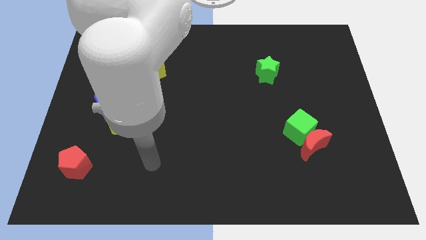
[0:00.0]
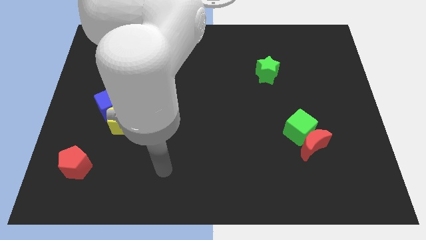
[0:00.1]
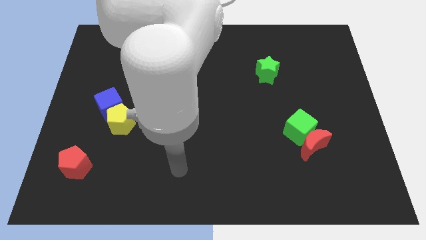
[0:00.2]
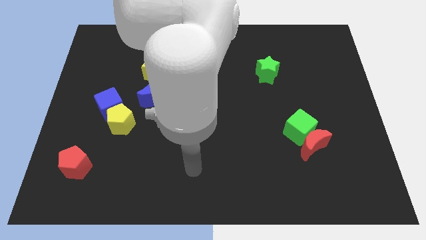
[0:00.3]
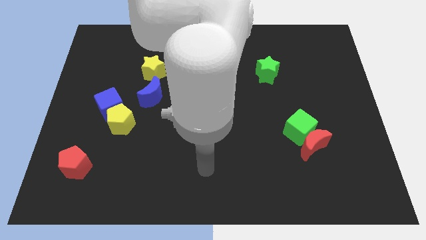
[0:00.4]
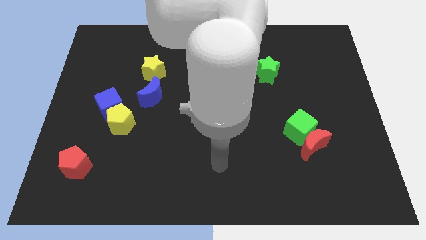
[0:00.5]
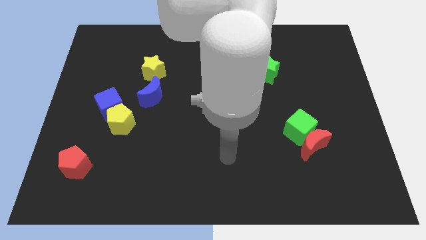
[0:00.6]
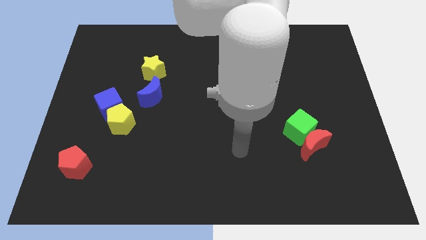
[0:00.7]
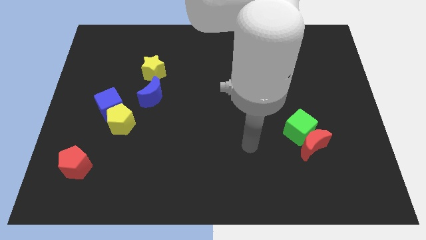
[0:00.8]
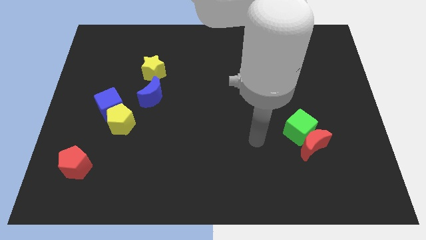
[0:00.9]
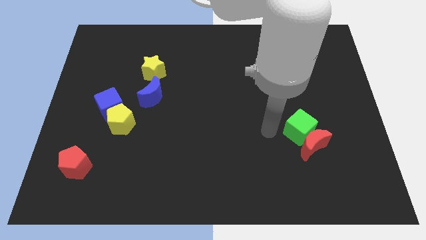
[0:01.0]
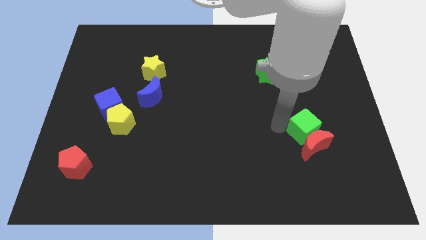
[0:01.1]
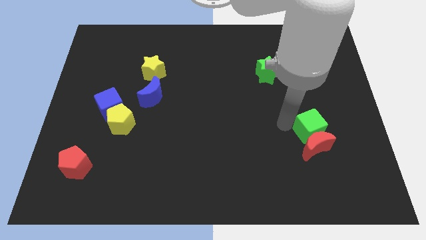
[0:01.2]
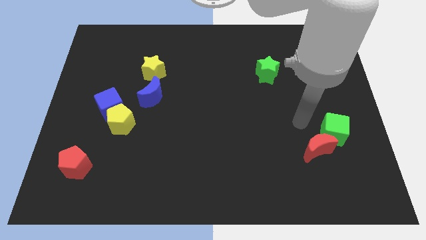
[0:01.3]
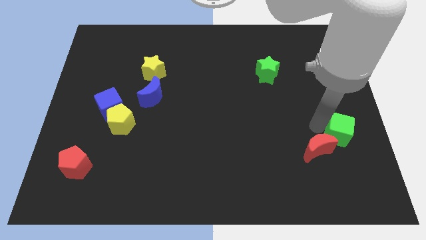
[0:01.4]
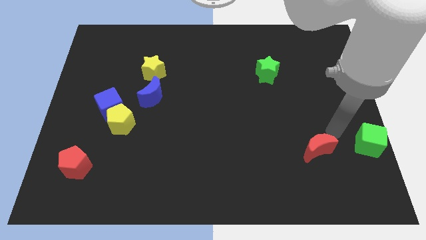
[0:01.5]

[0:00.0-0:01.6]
pull the red moon apart from the green cube

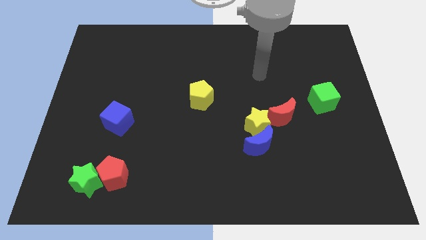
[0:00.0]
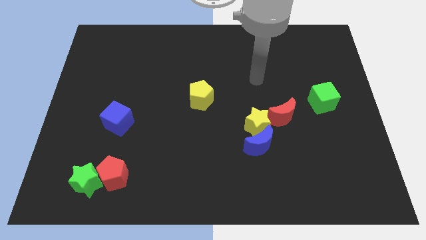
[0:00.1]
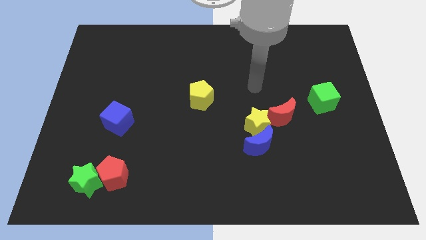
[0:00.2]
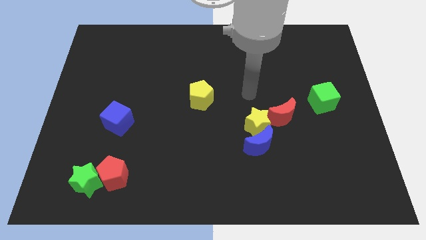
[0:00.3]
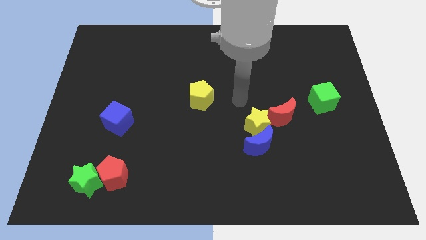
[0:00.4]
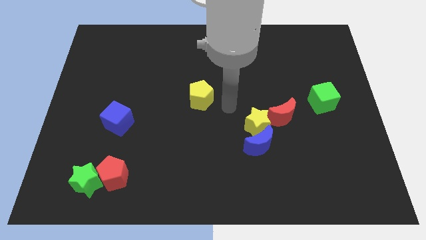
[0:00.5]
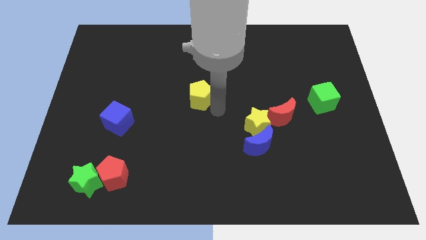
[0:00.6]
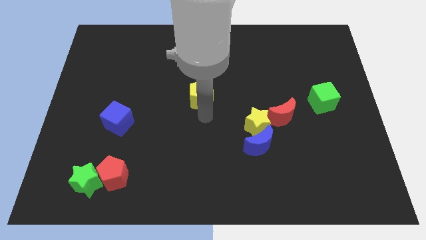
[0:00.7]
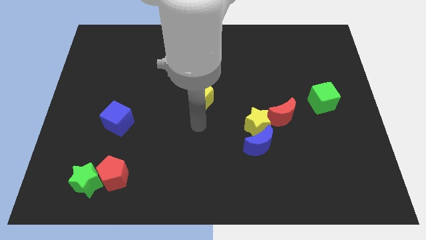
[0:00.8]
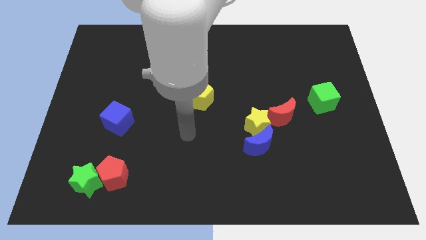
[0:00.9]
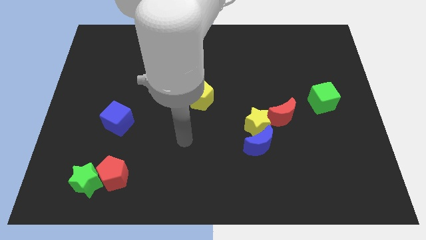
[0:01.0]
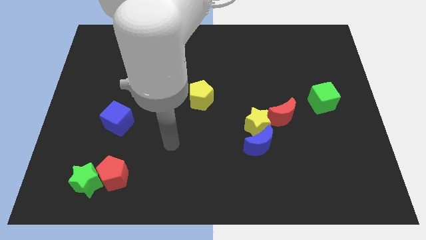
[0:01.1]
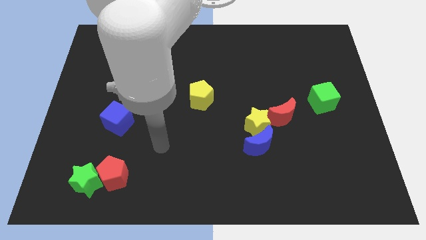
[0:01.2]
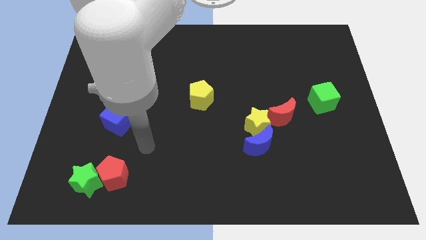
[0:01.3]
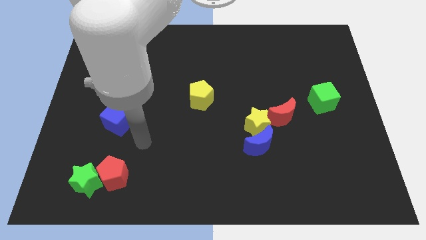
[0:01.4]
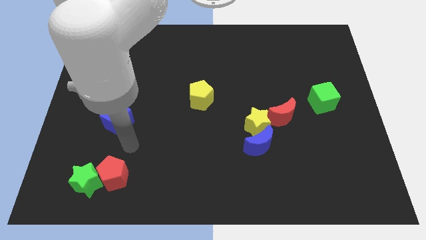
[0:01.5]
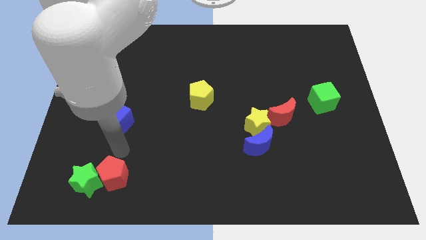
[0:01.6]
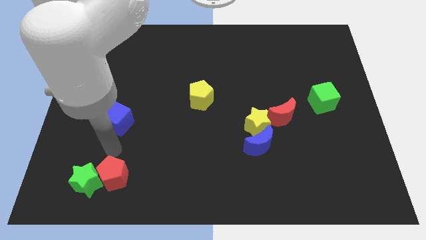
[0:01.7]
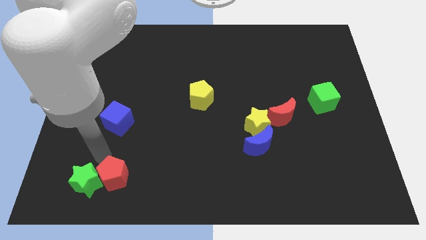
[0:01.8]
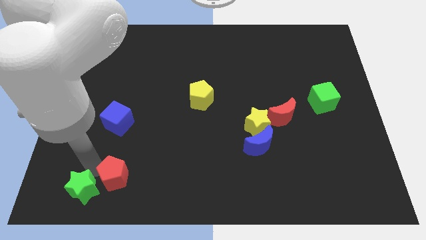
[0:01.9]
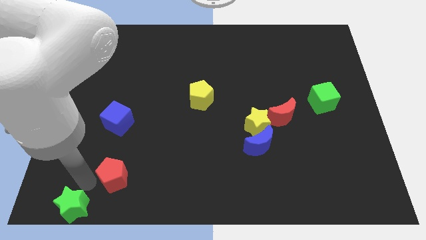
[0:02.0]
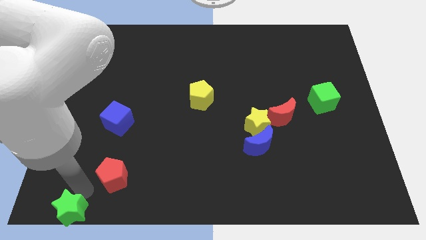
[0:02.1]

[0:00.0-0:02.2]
separate the red pentagon from the green star

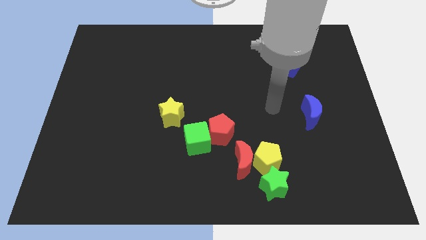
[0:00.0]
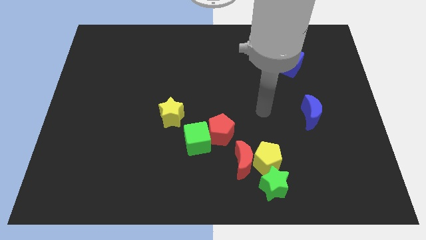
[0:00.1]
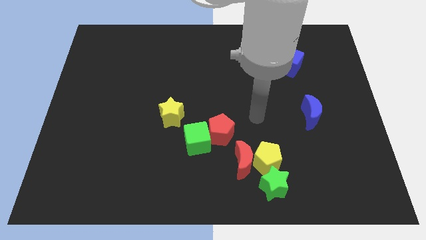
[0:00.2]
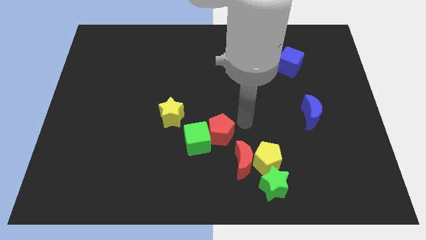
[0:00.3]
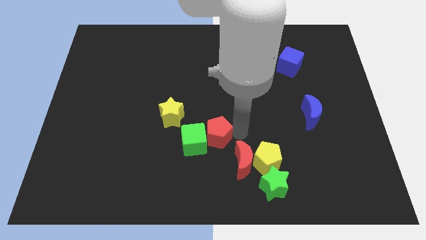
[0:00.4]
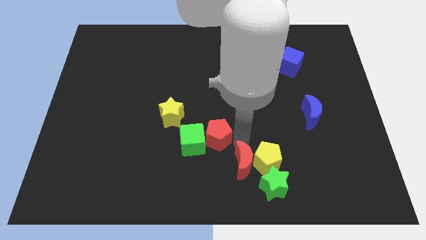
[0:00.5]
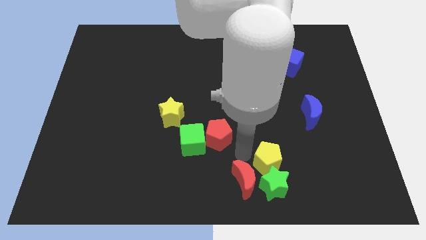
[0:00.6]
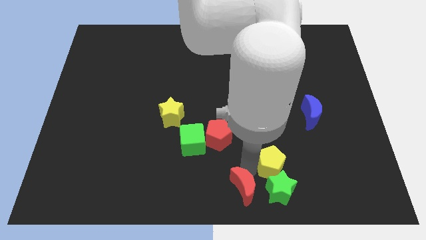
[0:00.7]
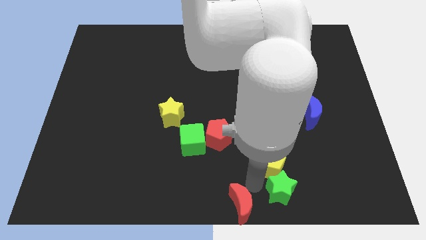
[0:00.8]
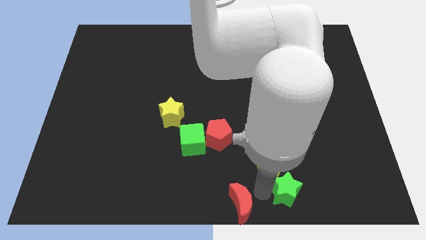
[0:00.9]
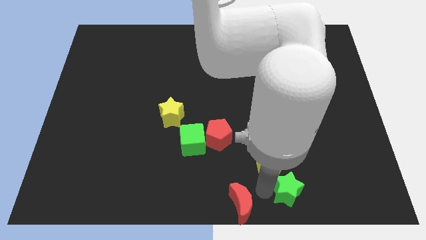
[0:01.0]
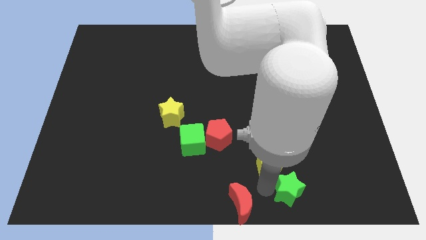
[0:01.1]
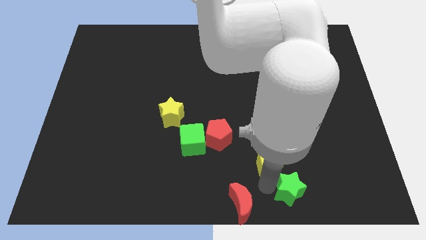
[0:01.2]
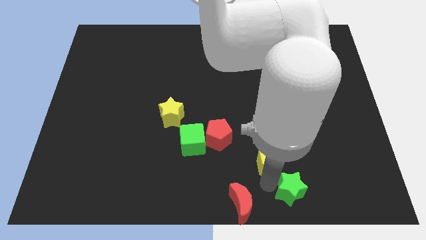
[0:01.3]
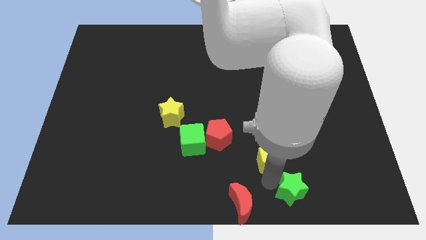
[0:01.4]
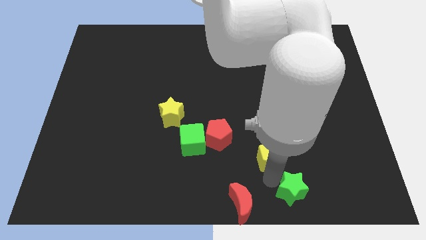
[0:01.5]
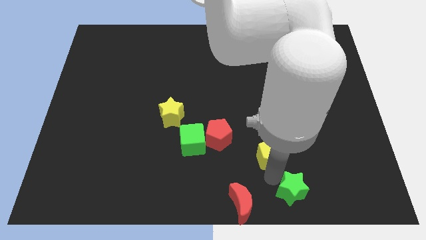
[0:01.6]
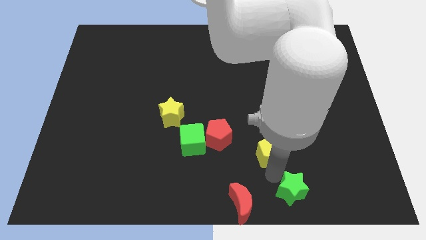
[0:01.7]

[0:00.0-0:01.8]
pull the yellow pentagon apart from the red moon and green star

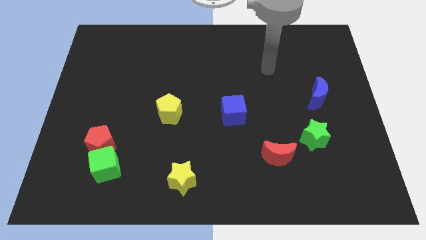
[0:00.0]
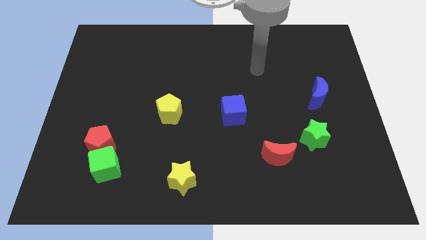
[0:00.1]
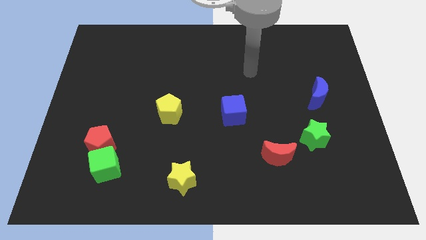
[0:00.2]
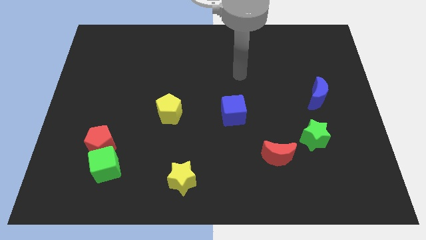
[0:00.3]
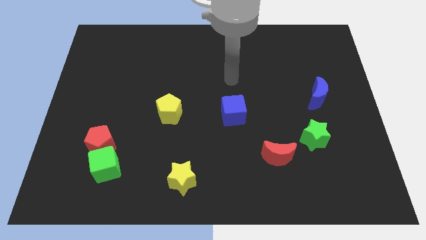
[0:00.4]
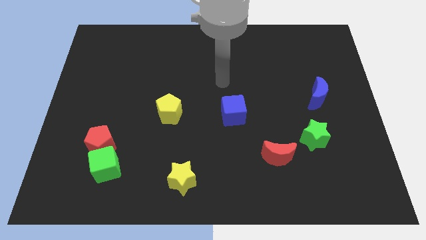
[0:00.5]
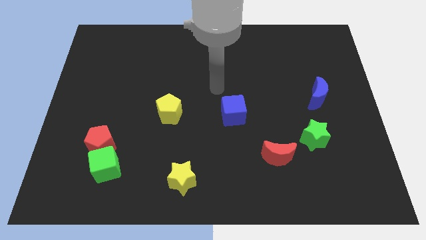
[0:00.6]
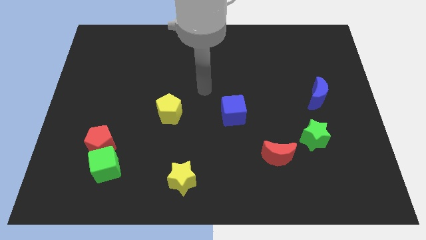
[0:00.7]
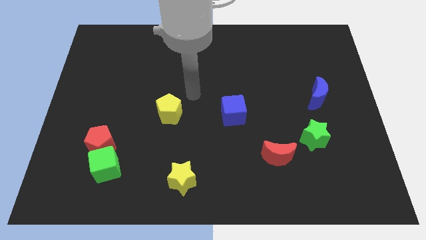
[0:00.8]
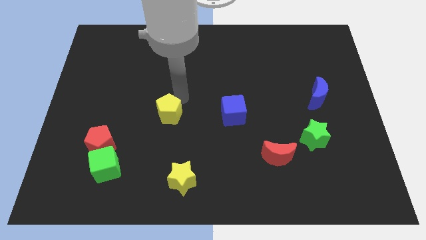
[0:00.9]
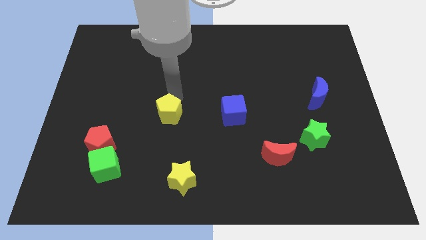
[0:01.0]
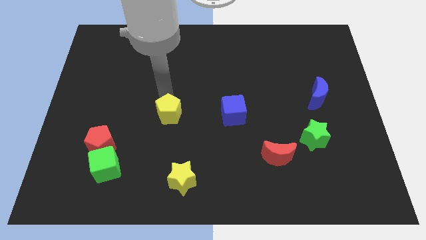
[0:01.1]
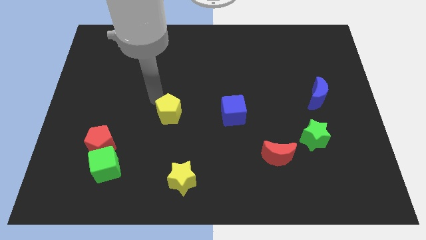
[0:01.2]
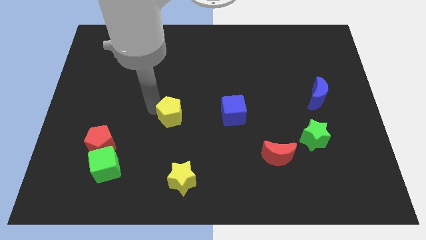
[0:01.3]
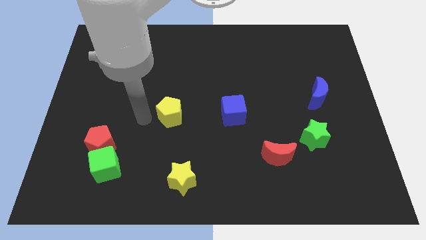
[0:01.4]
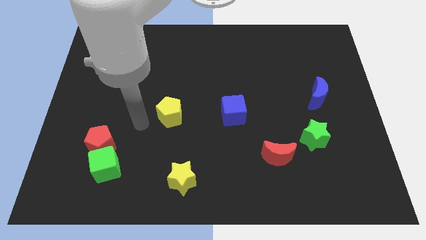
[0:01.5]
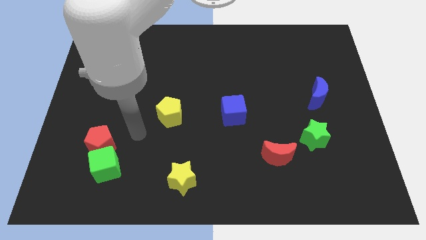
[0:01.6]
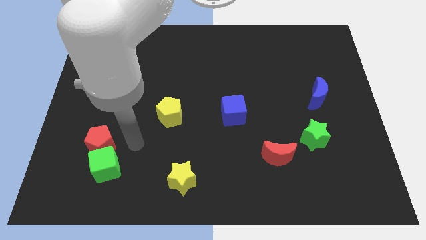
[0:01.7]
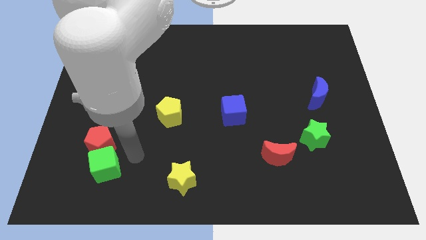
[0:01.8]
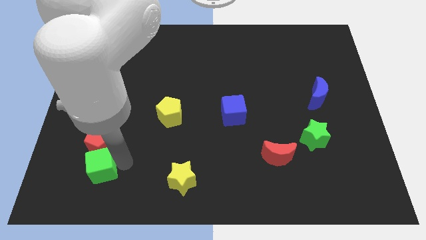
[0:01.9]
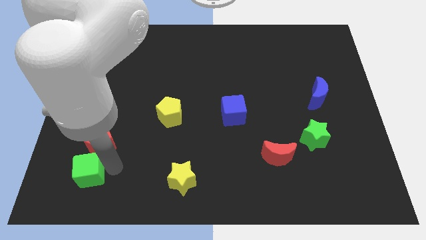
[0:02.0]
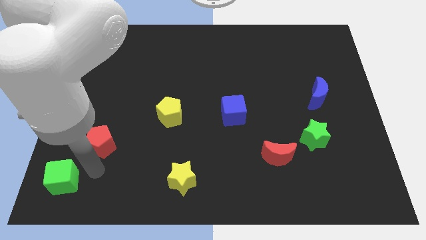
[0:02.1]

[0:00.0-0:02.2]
pull the red pentagon apart from the green cube

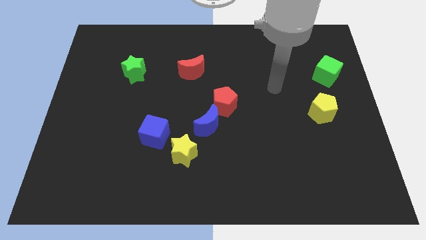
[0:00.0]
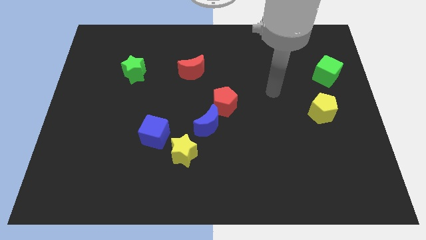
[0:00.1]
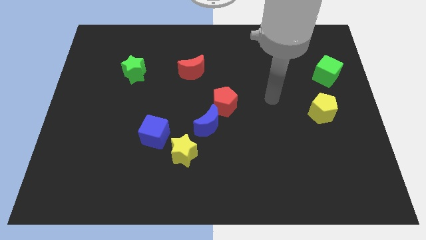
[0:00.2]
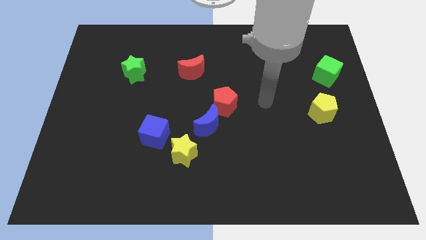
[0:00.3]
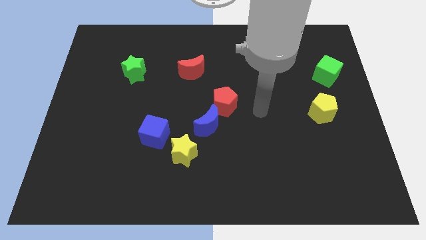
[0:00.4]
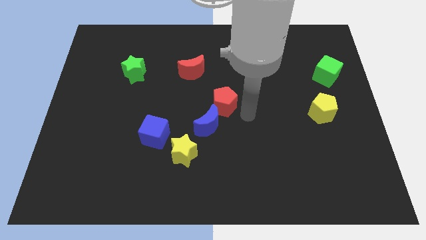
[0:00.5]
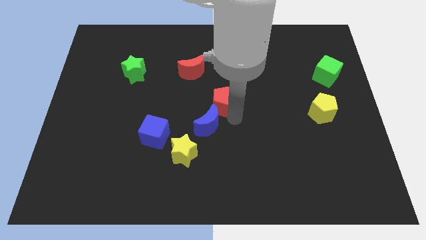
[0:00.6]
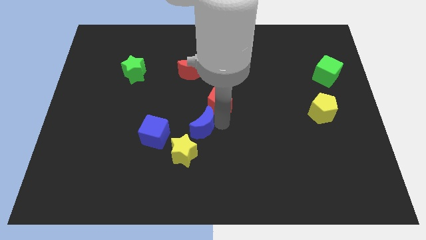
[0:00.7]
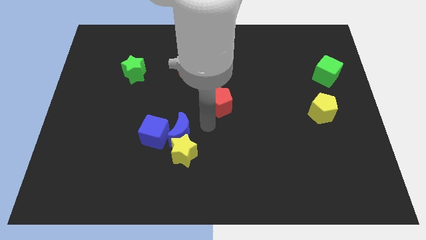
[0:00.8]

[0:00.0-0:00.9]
pull the red pentagon apart from the blue moon

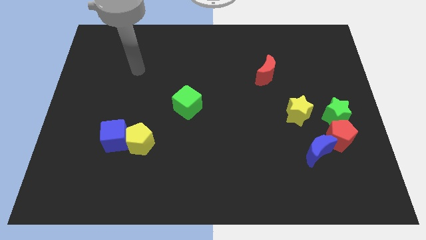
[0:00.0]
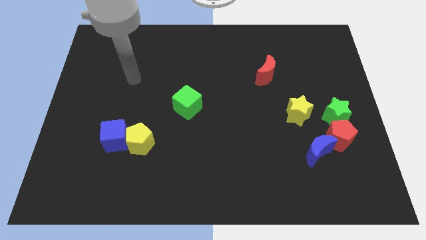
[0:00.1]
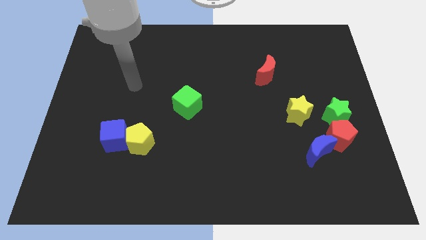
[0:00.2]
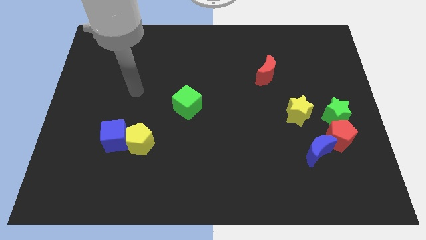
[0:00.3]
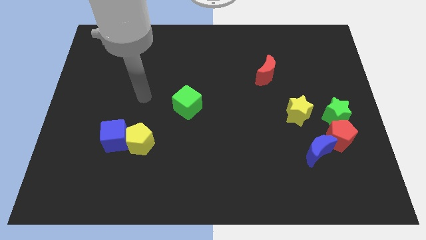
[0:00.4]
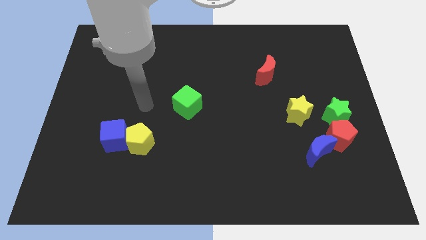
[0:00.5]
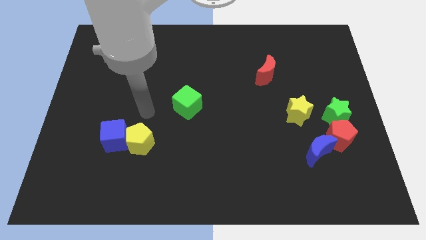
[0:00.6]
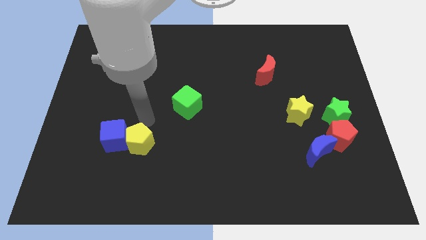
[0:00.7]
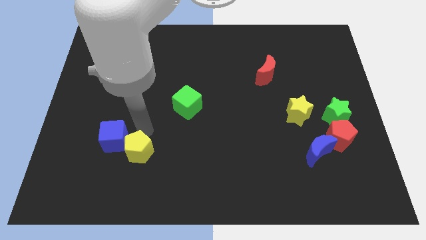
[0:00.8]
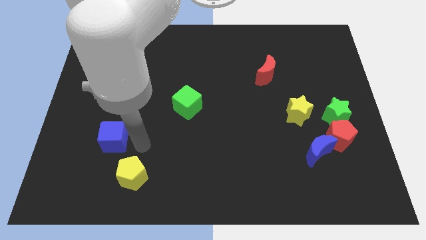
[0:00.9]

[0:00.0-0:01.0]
move the blue cube away from the yellow pentagon
